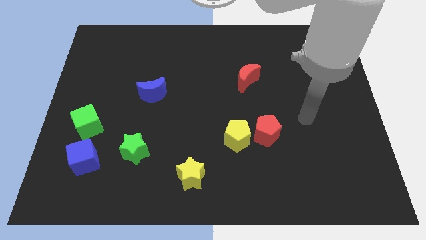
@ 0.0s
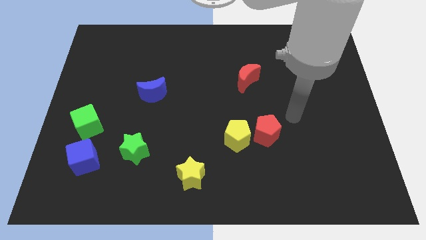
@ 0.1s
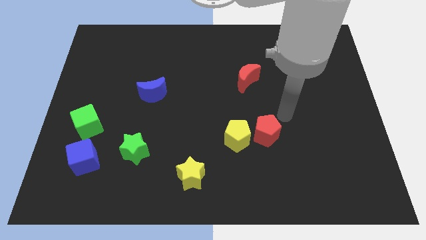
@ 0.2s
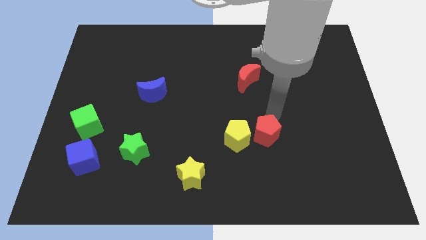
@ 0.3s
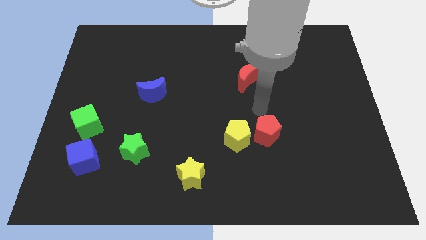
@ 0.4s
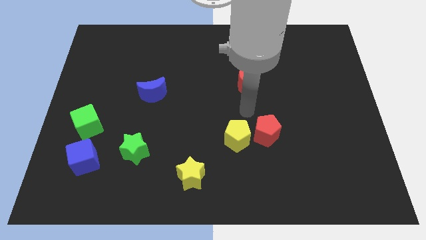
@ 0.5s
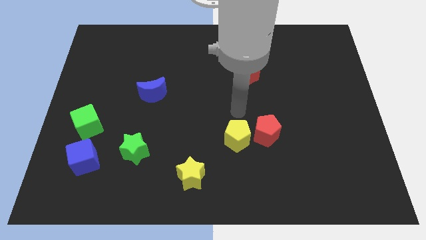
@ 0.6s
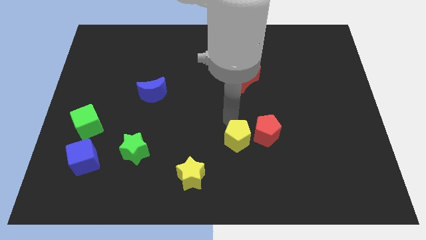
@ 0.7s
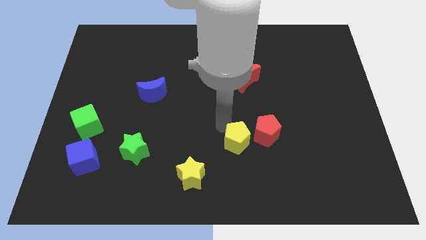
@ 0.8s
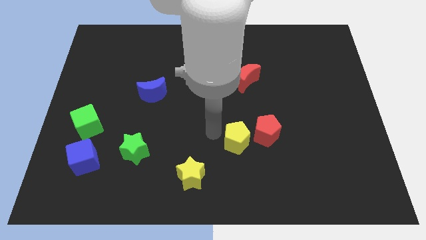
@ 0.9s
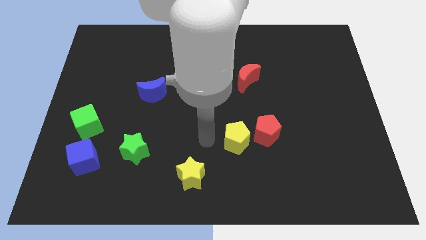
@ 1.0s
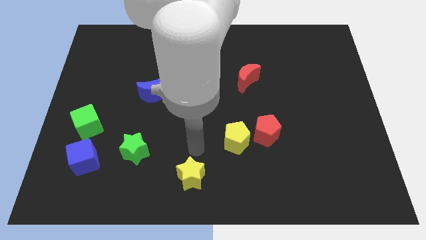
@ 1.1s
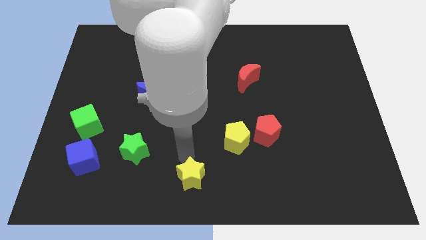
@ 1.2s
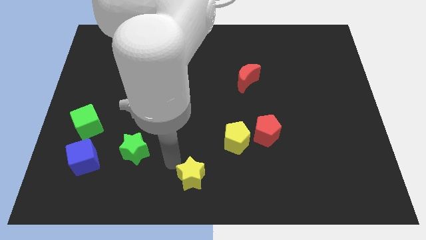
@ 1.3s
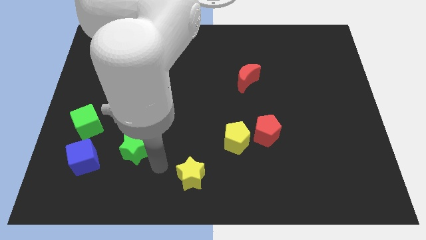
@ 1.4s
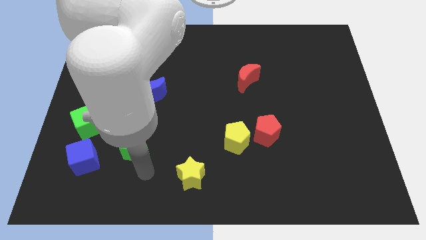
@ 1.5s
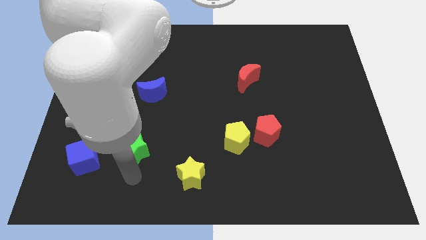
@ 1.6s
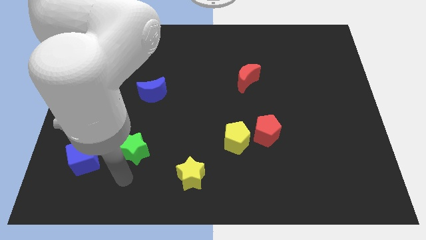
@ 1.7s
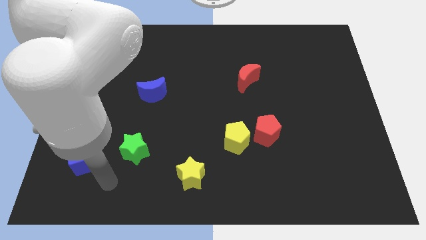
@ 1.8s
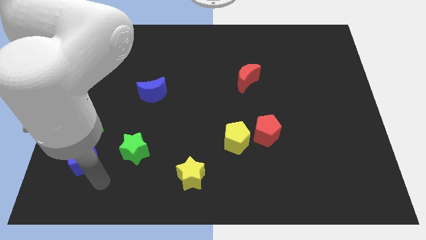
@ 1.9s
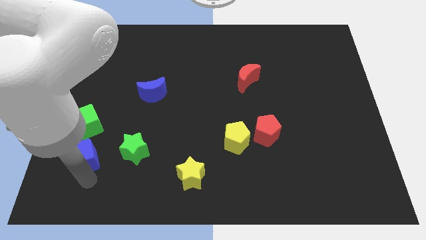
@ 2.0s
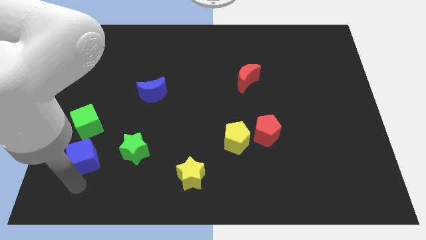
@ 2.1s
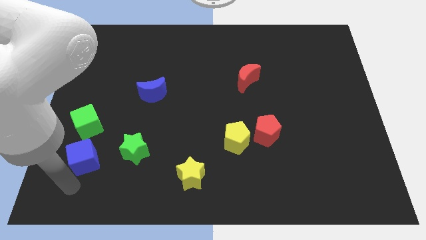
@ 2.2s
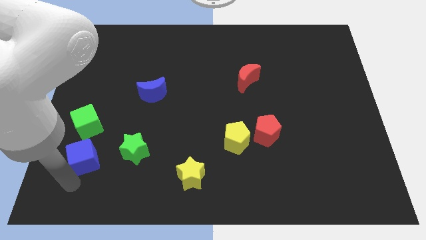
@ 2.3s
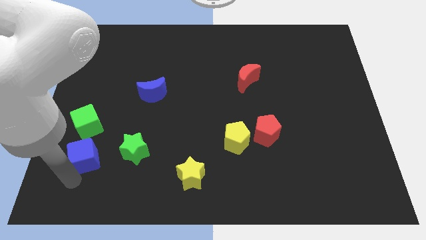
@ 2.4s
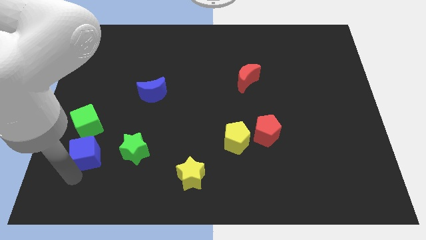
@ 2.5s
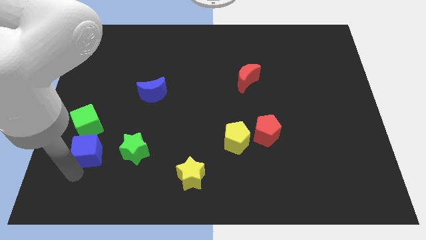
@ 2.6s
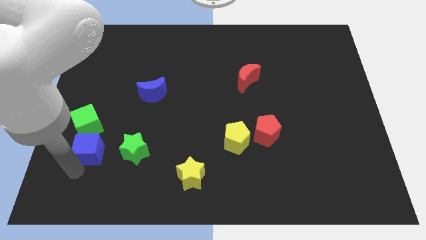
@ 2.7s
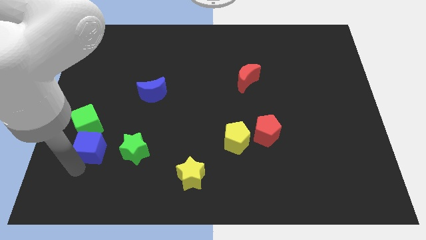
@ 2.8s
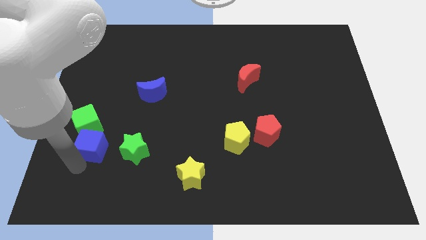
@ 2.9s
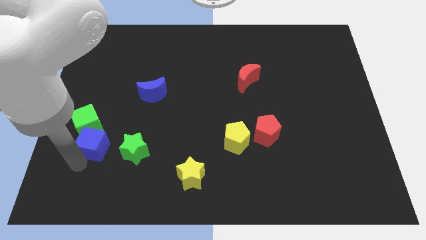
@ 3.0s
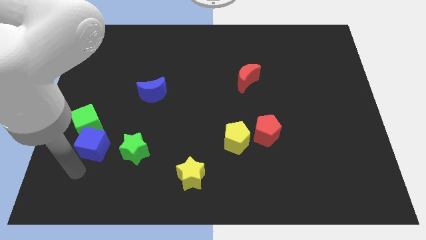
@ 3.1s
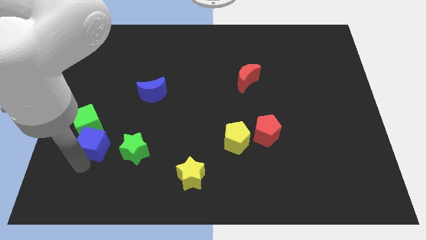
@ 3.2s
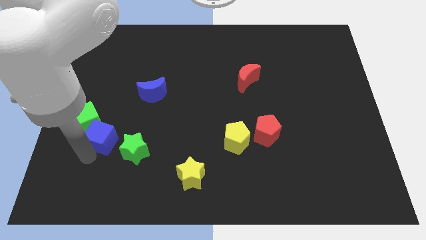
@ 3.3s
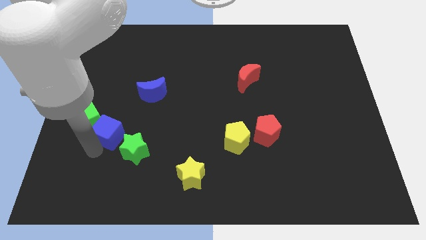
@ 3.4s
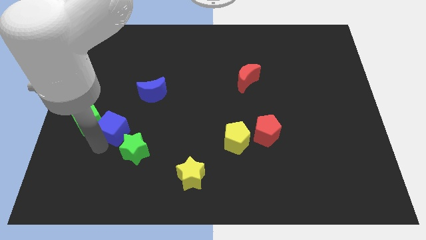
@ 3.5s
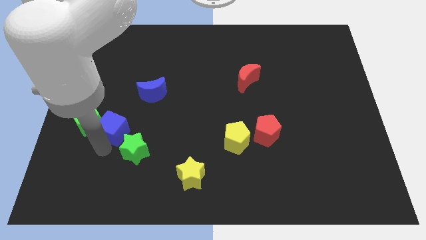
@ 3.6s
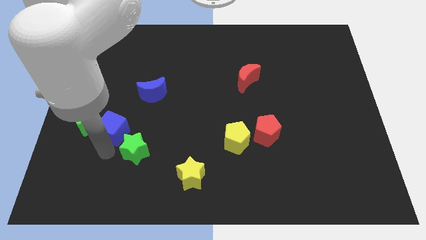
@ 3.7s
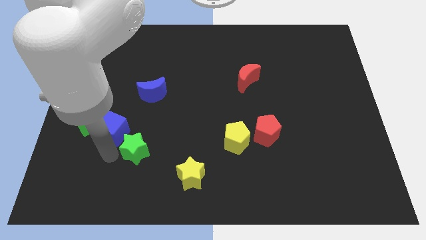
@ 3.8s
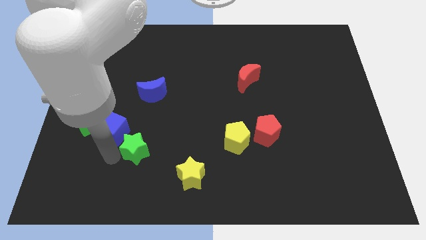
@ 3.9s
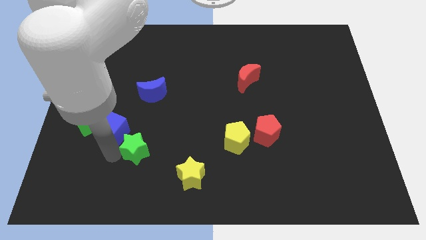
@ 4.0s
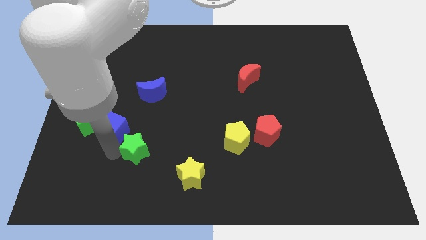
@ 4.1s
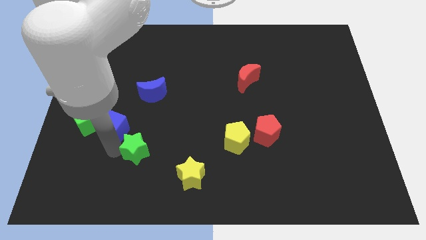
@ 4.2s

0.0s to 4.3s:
push the blue cube upwards a little bit

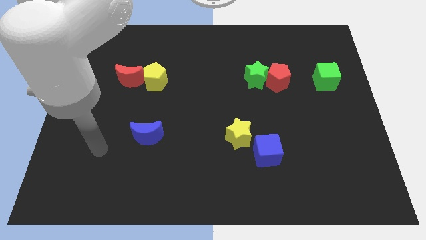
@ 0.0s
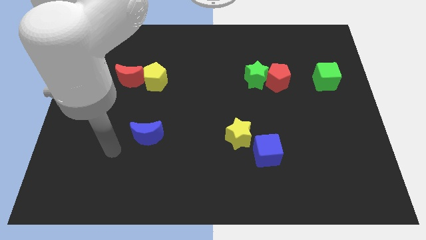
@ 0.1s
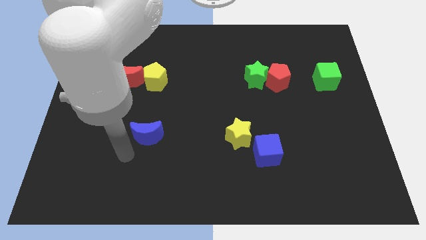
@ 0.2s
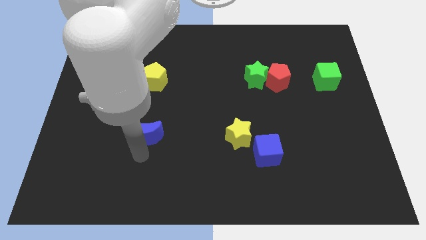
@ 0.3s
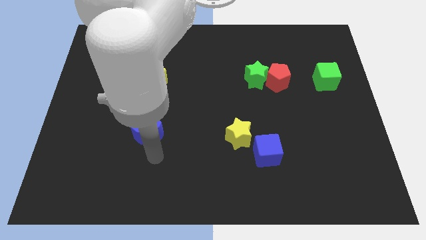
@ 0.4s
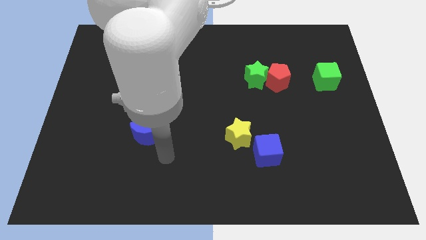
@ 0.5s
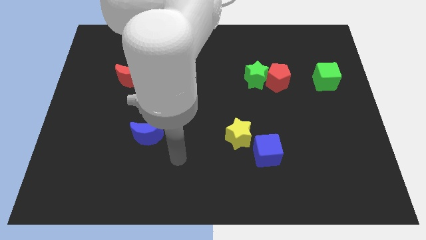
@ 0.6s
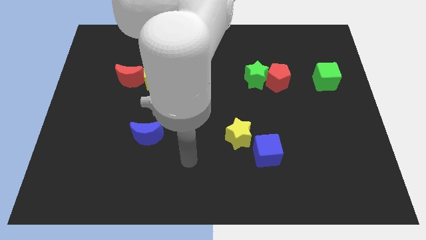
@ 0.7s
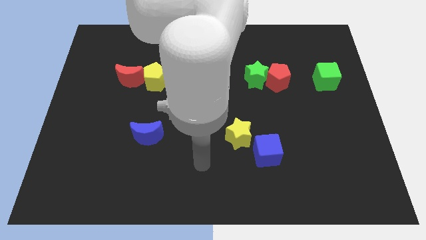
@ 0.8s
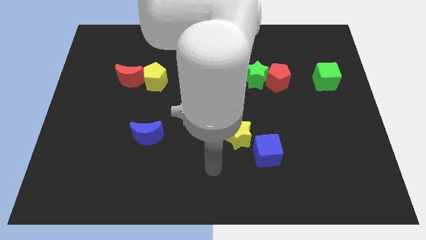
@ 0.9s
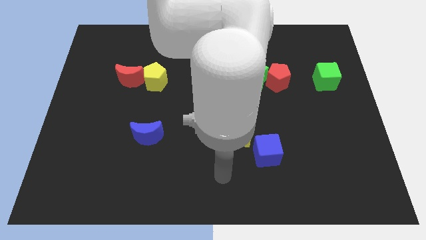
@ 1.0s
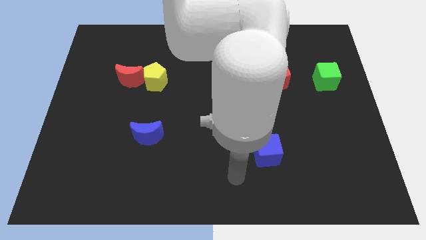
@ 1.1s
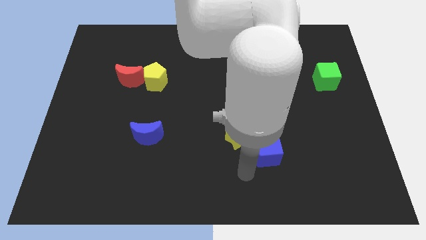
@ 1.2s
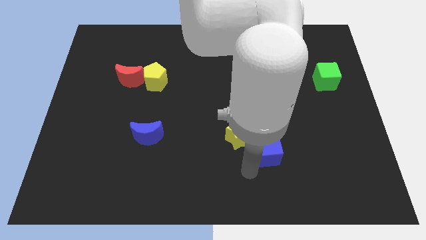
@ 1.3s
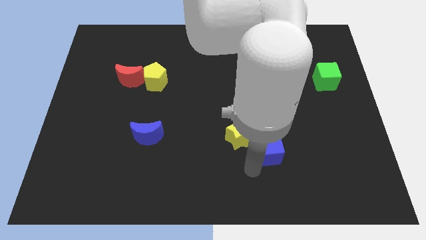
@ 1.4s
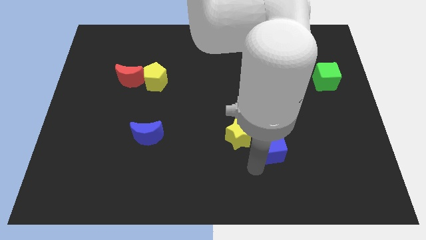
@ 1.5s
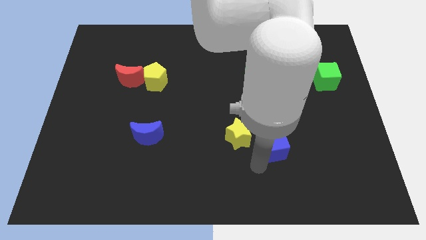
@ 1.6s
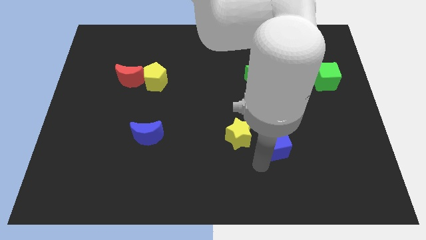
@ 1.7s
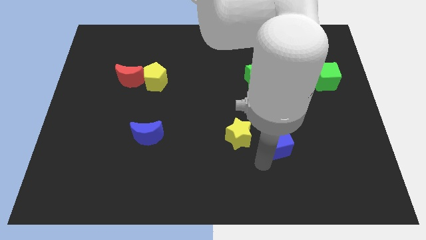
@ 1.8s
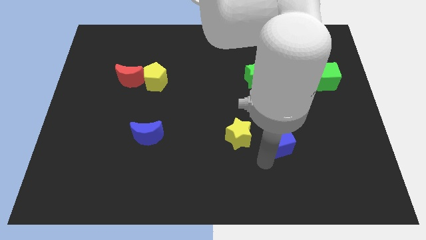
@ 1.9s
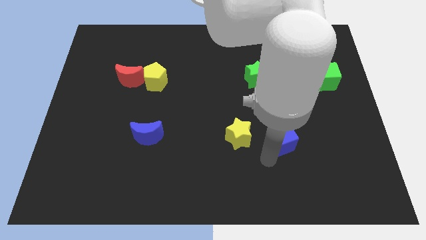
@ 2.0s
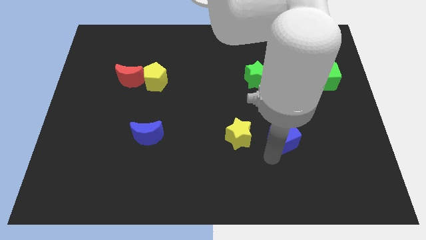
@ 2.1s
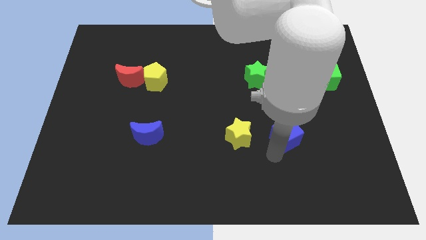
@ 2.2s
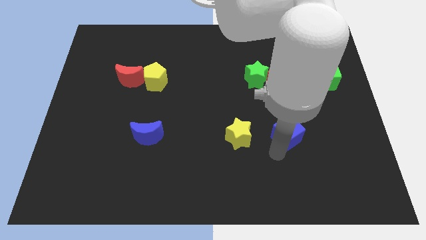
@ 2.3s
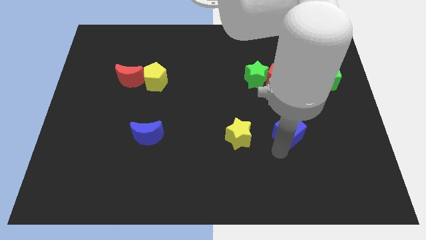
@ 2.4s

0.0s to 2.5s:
slightly push the blue cube diagonally up and right

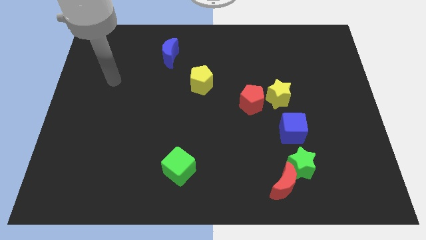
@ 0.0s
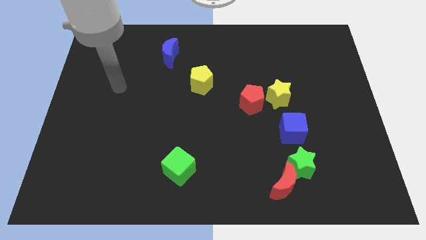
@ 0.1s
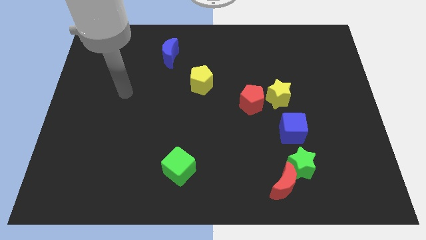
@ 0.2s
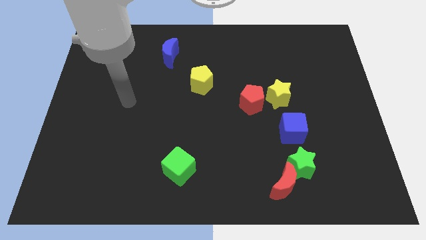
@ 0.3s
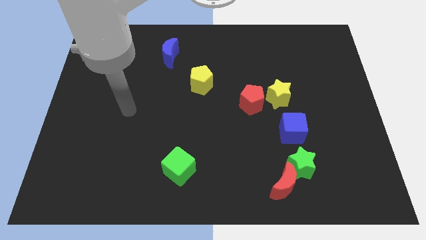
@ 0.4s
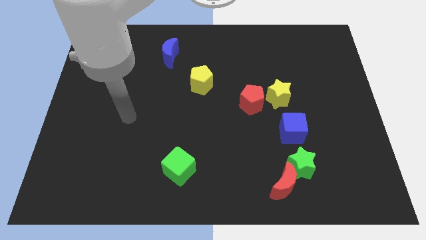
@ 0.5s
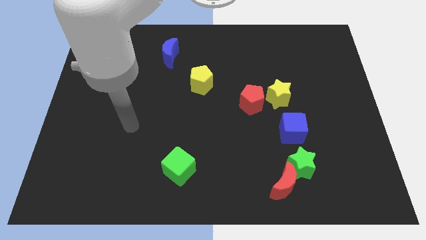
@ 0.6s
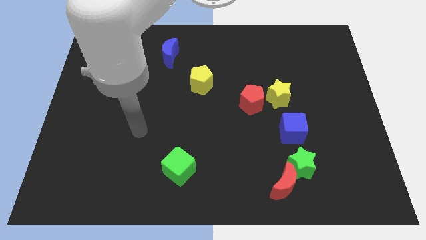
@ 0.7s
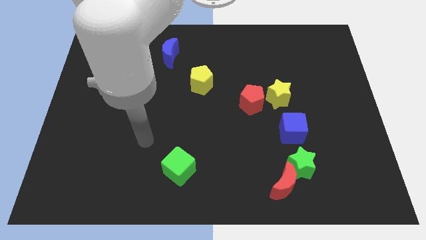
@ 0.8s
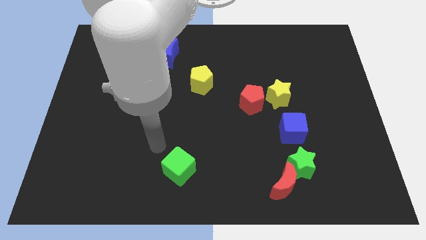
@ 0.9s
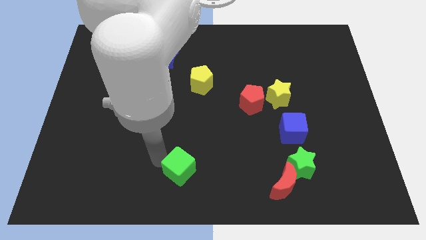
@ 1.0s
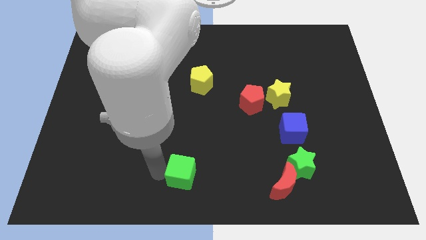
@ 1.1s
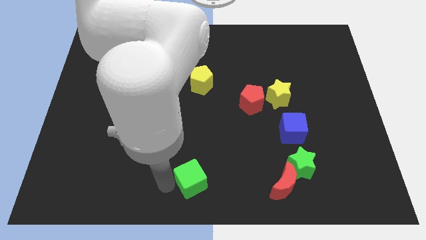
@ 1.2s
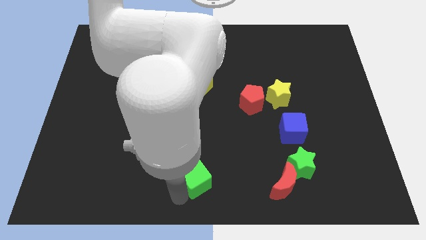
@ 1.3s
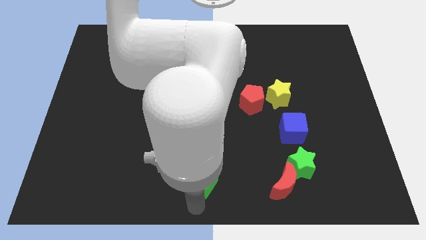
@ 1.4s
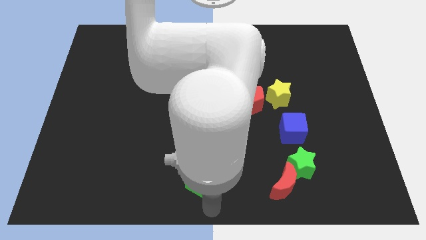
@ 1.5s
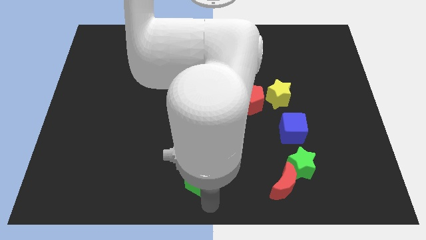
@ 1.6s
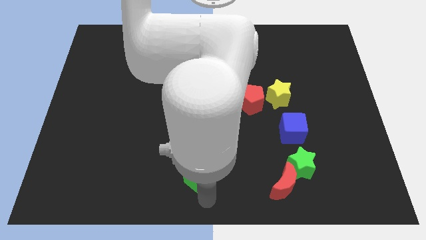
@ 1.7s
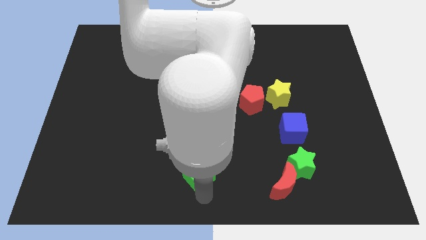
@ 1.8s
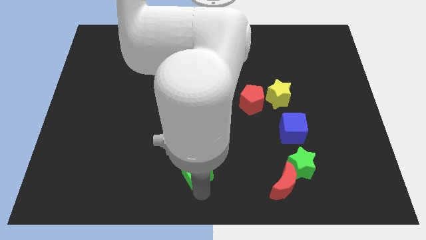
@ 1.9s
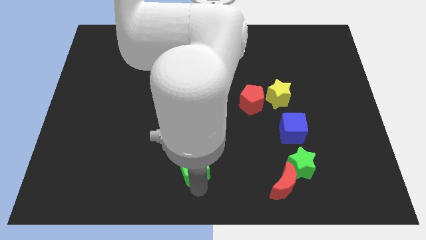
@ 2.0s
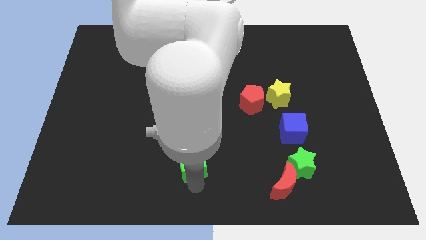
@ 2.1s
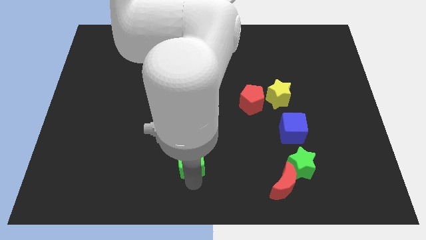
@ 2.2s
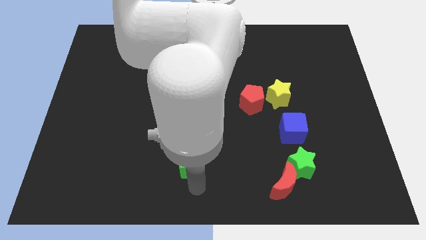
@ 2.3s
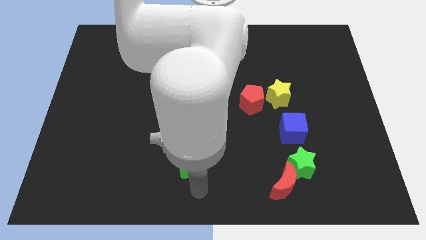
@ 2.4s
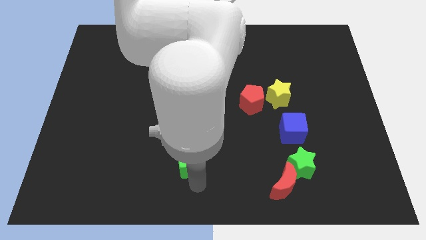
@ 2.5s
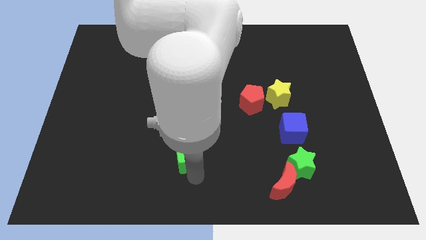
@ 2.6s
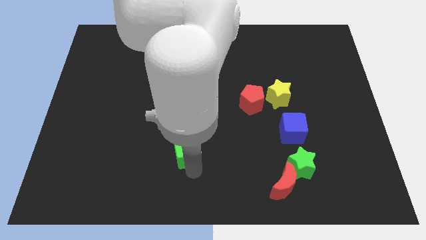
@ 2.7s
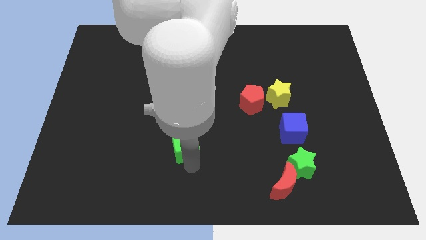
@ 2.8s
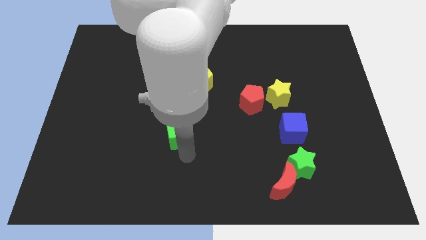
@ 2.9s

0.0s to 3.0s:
slide the green cube up slightly
